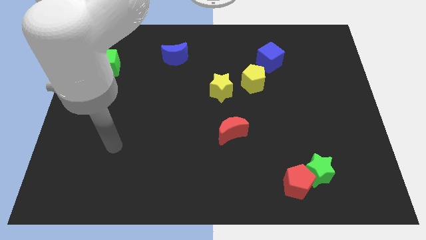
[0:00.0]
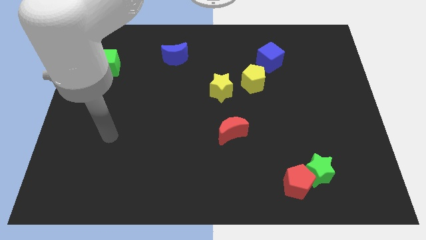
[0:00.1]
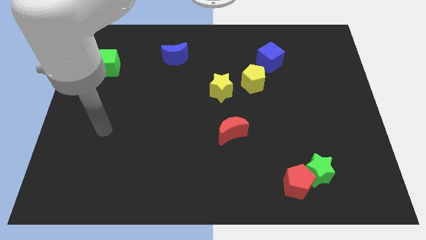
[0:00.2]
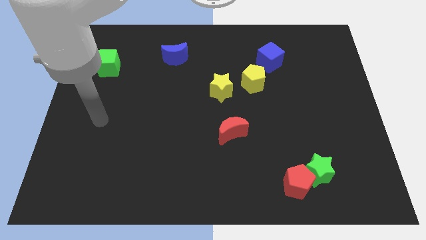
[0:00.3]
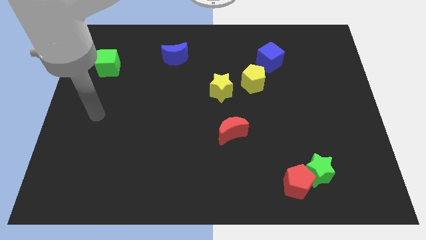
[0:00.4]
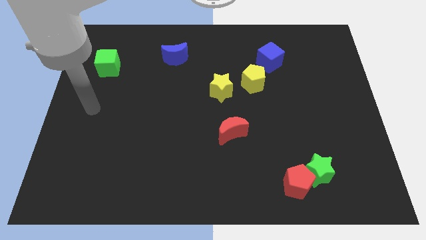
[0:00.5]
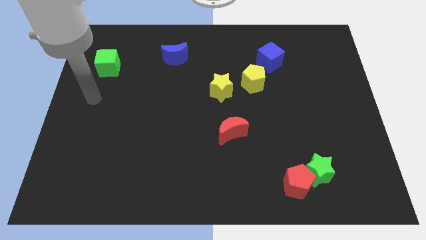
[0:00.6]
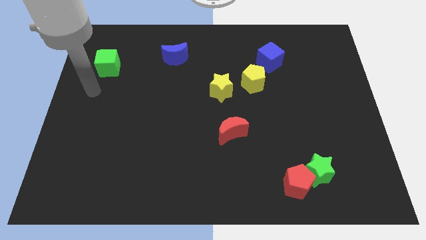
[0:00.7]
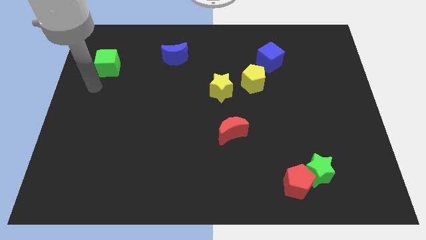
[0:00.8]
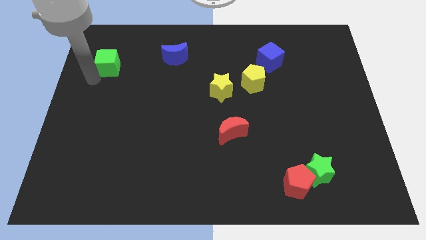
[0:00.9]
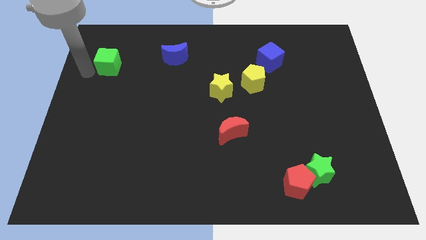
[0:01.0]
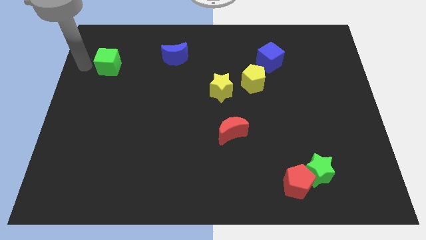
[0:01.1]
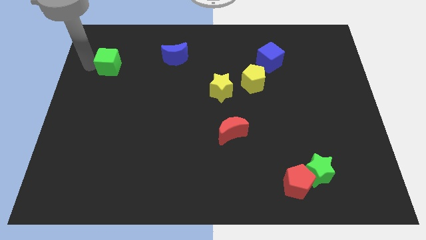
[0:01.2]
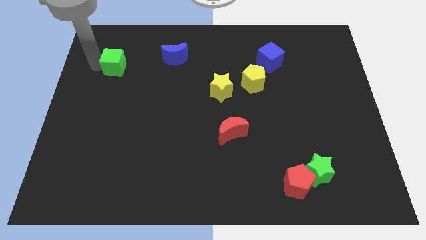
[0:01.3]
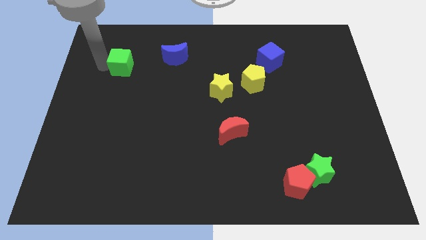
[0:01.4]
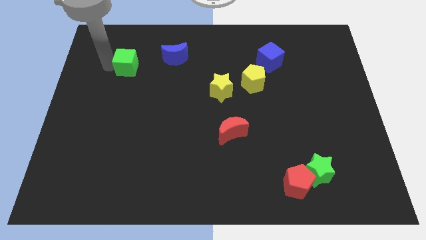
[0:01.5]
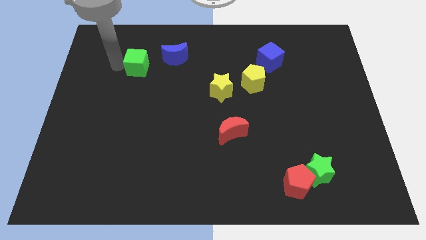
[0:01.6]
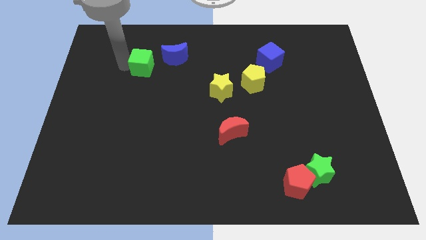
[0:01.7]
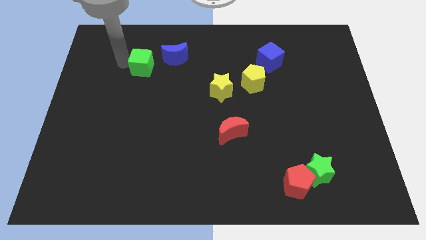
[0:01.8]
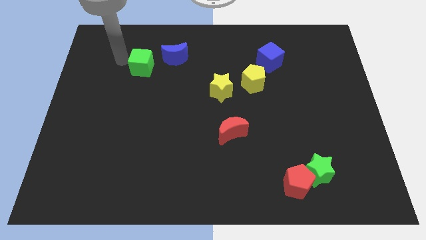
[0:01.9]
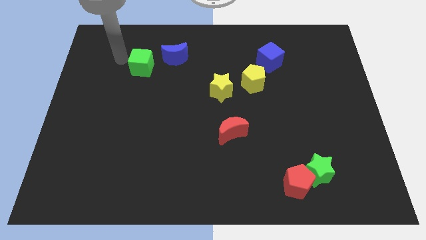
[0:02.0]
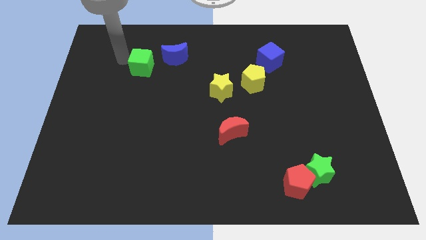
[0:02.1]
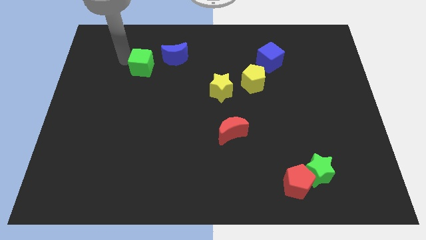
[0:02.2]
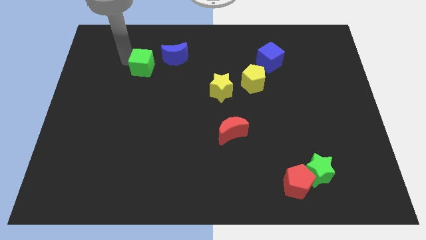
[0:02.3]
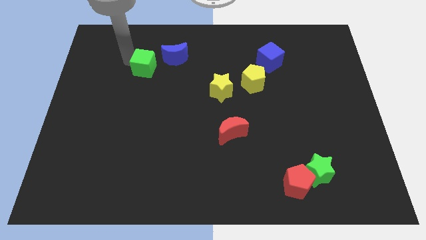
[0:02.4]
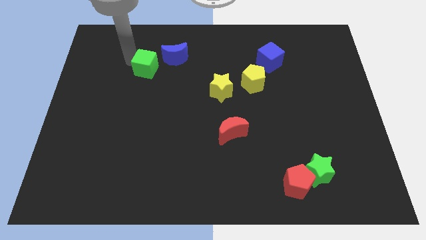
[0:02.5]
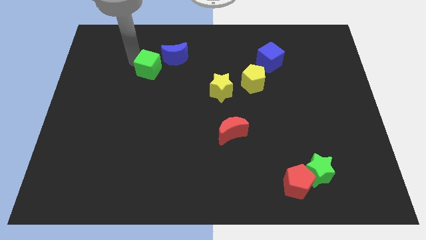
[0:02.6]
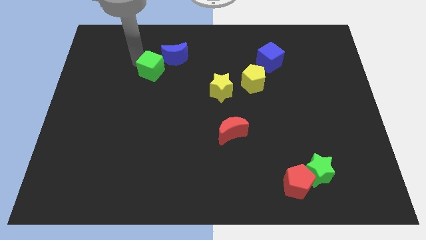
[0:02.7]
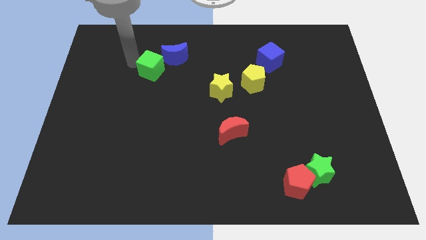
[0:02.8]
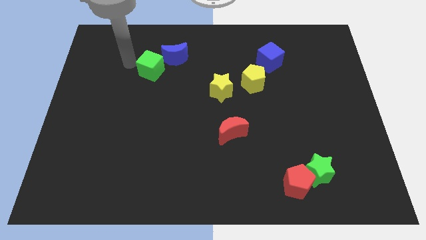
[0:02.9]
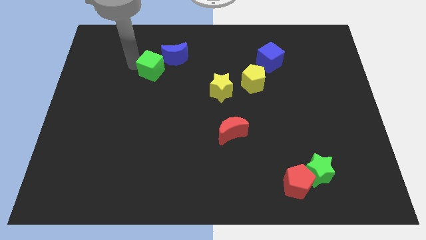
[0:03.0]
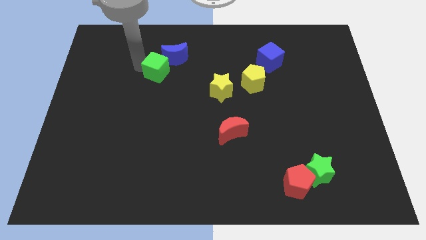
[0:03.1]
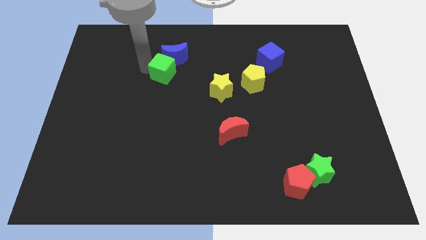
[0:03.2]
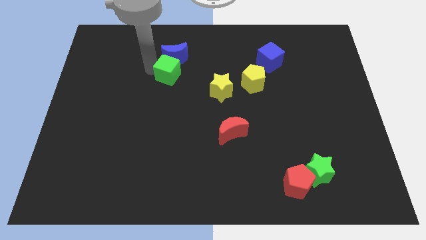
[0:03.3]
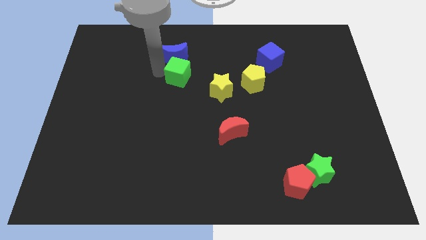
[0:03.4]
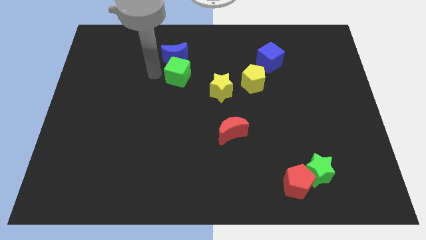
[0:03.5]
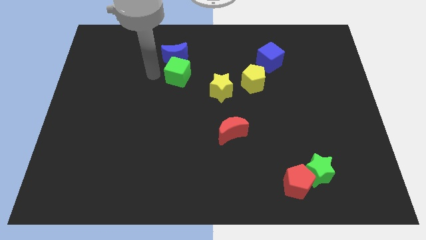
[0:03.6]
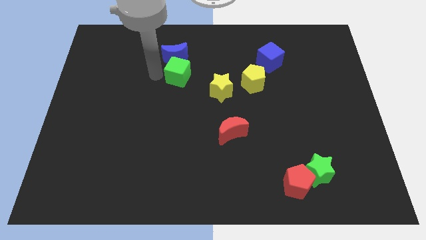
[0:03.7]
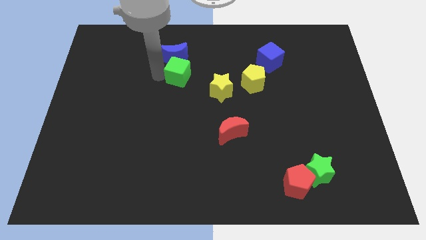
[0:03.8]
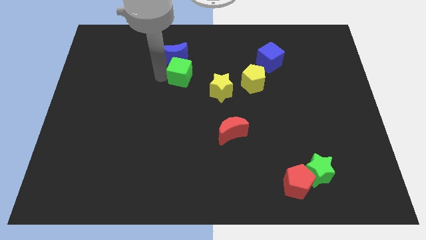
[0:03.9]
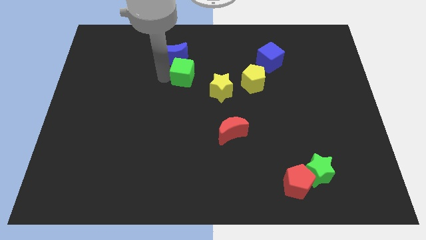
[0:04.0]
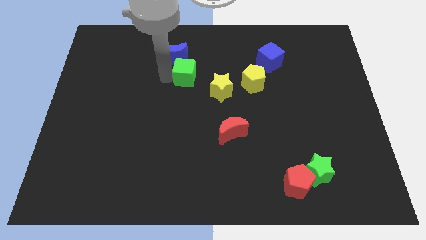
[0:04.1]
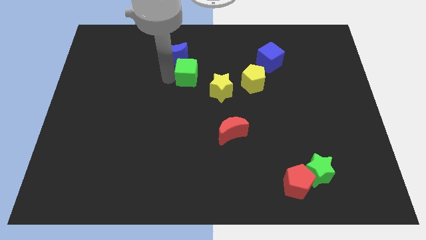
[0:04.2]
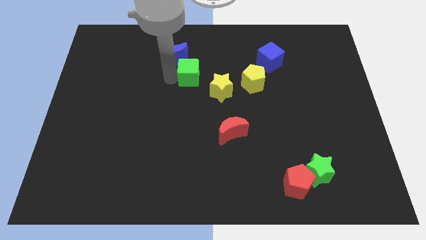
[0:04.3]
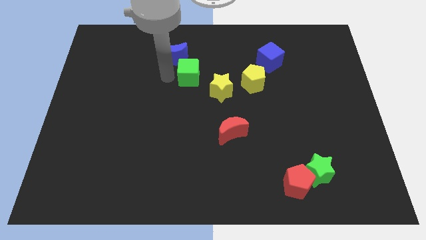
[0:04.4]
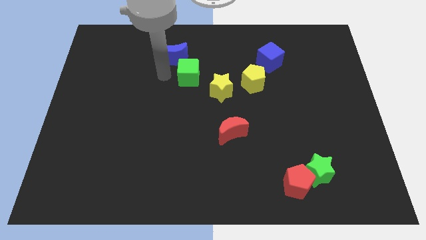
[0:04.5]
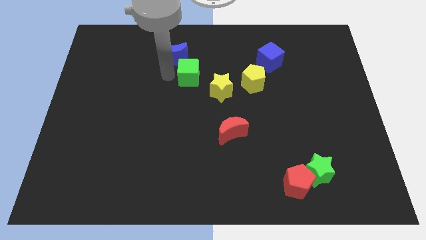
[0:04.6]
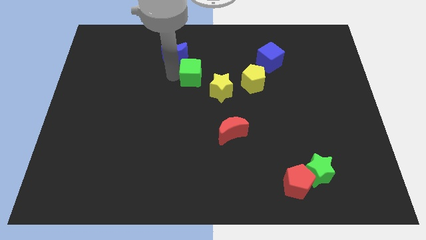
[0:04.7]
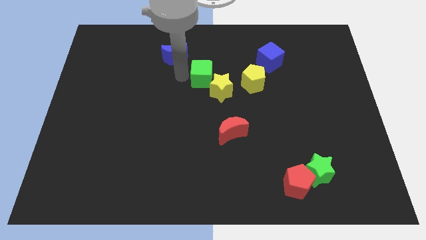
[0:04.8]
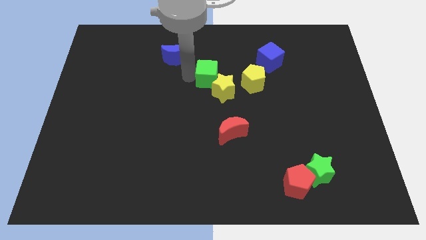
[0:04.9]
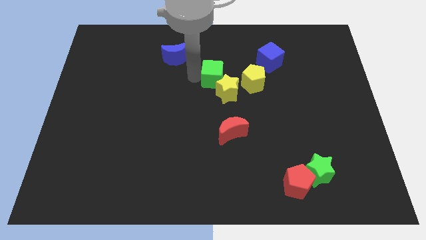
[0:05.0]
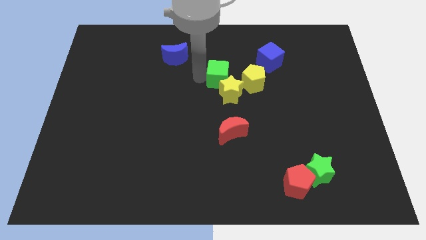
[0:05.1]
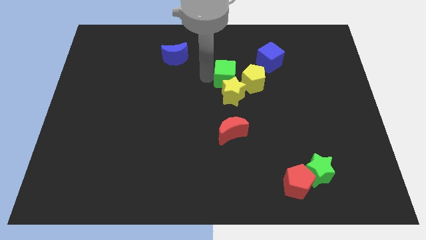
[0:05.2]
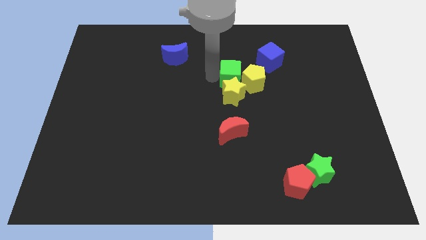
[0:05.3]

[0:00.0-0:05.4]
move the green cube close to the yellow pentagon

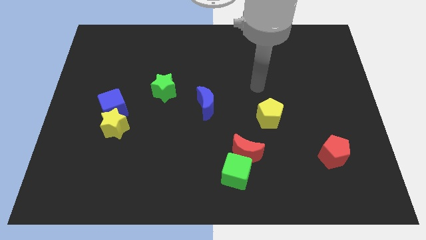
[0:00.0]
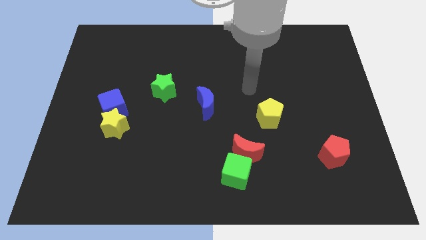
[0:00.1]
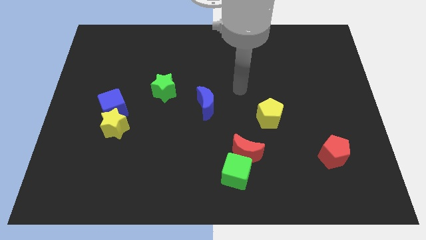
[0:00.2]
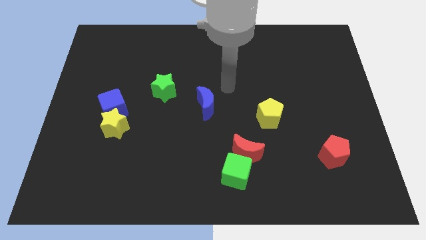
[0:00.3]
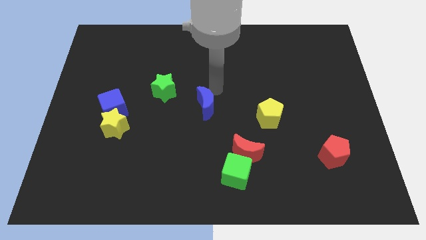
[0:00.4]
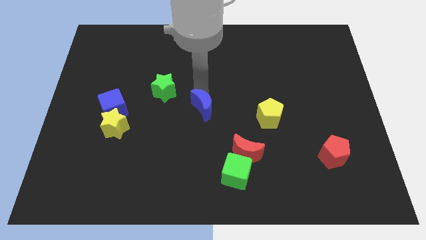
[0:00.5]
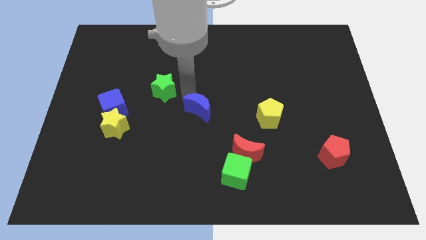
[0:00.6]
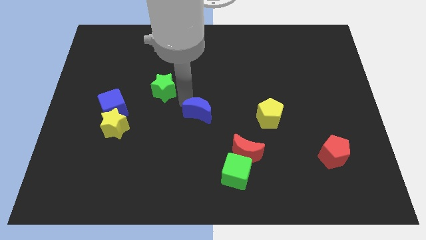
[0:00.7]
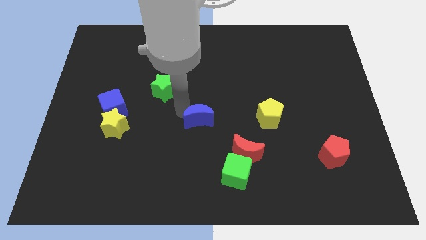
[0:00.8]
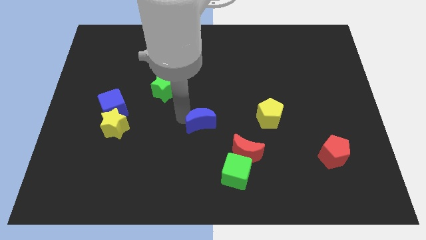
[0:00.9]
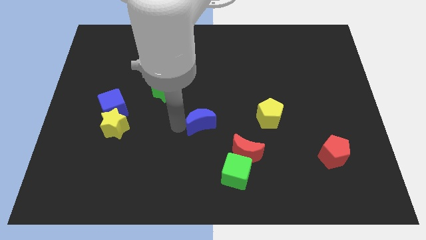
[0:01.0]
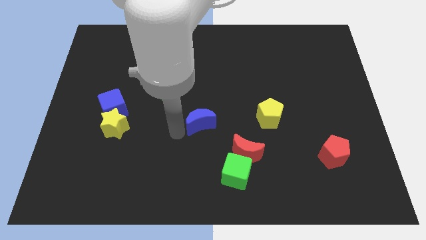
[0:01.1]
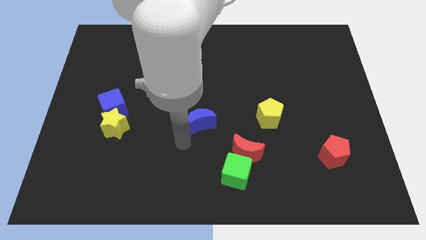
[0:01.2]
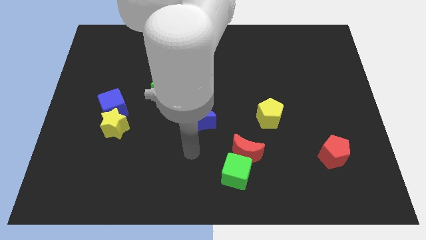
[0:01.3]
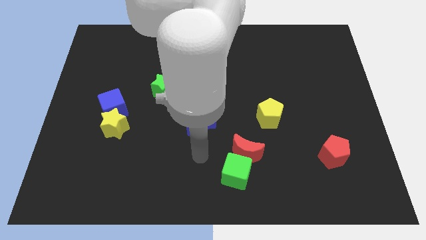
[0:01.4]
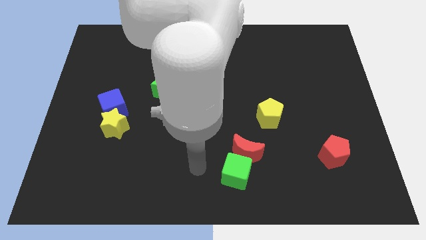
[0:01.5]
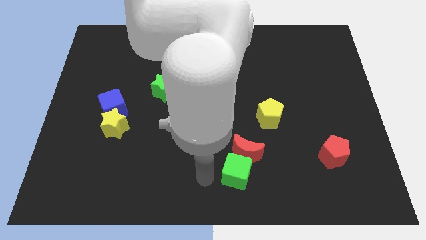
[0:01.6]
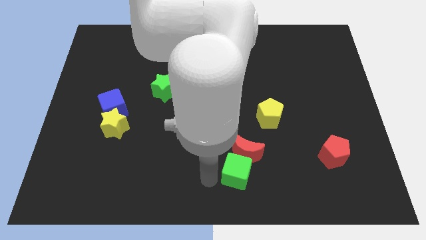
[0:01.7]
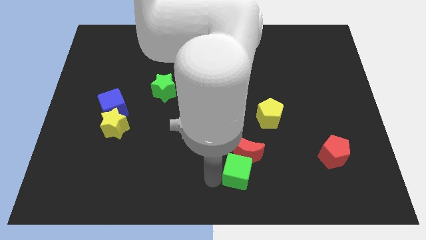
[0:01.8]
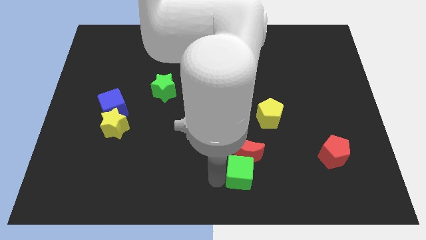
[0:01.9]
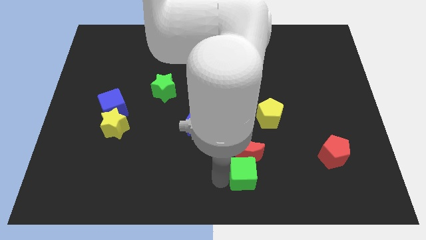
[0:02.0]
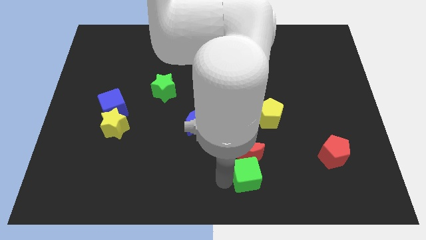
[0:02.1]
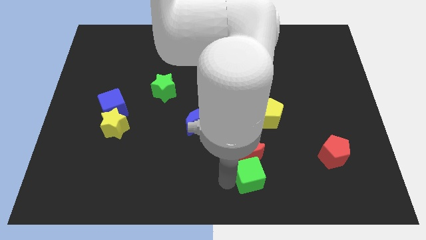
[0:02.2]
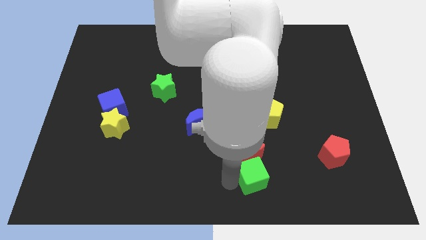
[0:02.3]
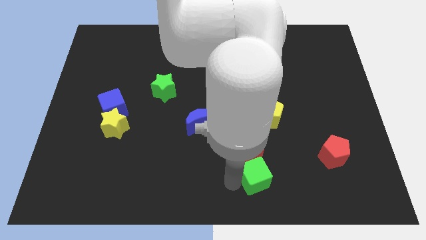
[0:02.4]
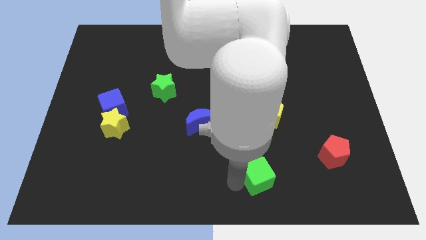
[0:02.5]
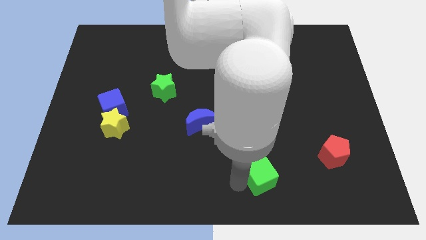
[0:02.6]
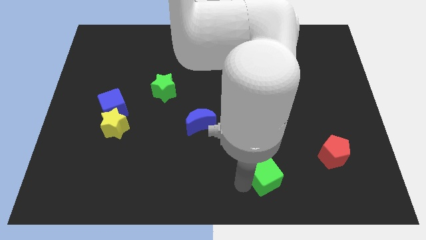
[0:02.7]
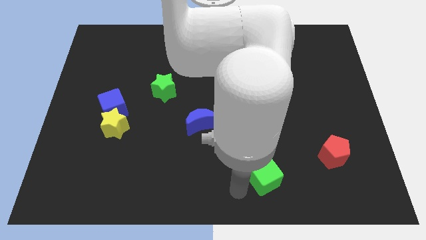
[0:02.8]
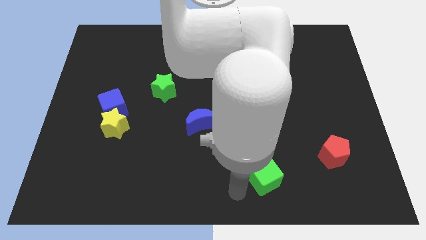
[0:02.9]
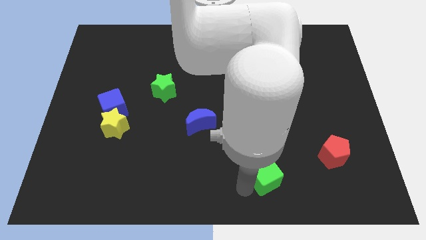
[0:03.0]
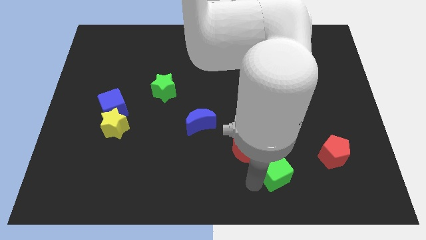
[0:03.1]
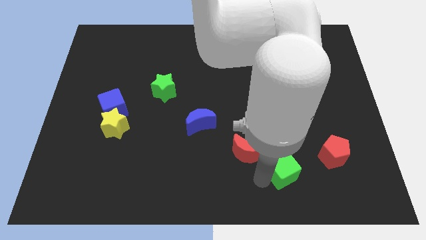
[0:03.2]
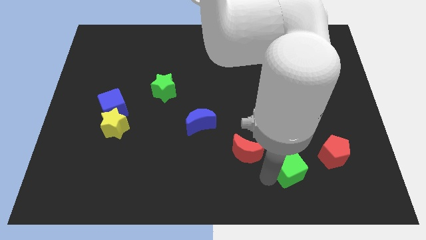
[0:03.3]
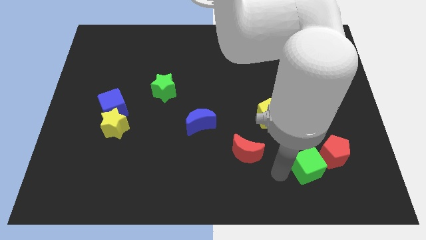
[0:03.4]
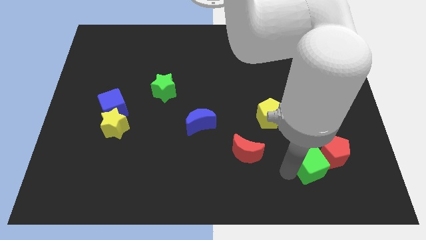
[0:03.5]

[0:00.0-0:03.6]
move the green cube towards the red pentagon
